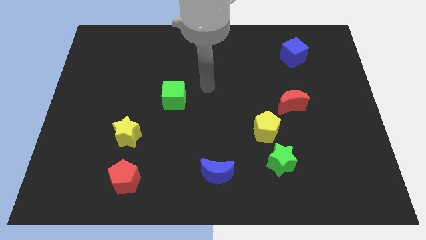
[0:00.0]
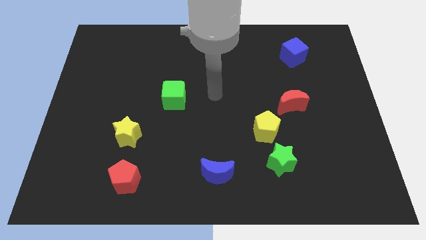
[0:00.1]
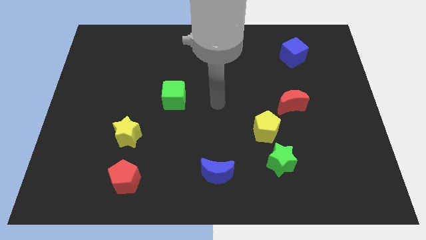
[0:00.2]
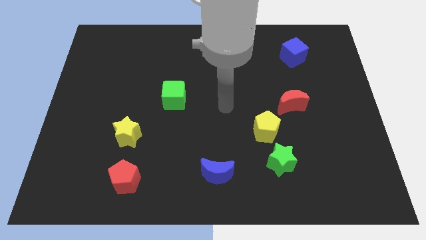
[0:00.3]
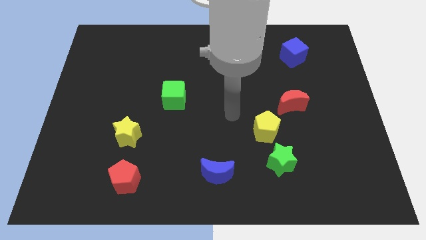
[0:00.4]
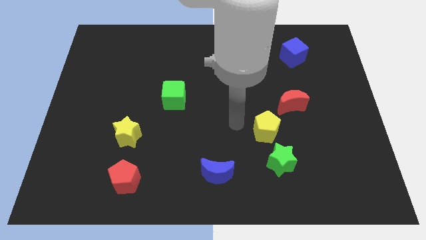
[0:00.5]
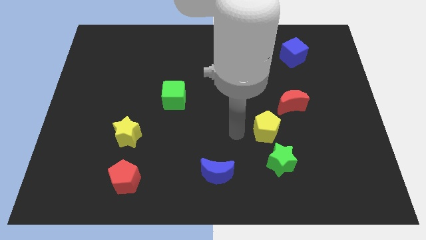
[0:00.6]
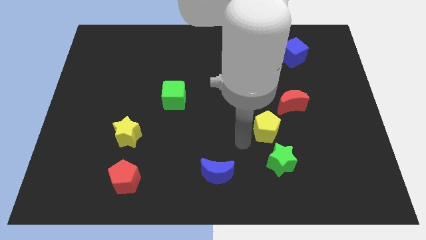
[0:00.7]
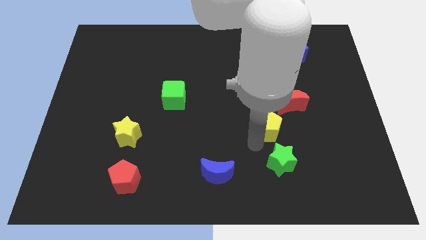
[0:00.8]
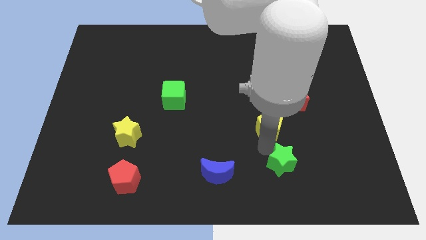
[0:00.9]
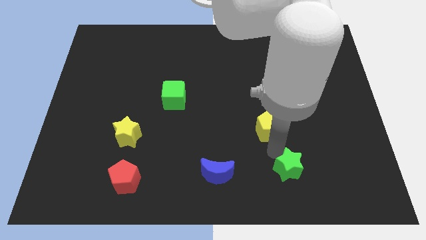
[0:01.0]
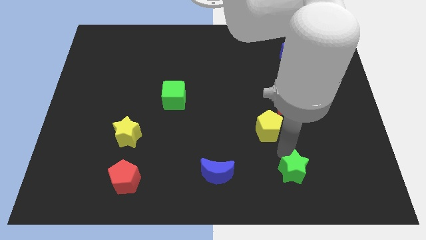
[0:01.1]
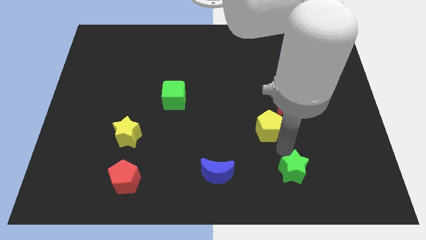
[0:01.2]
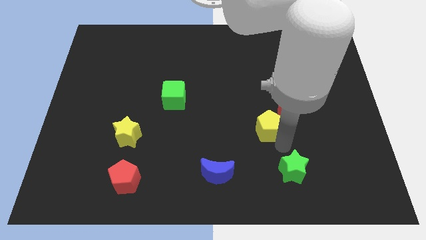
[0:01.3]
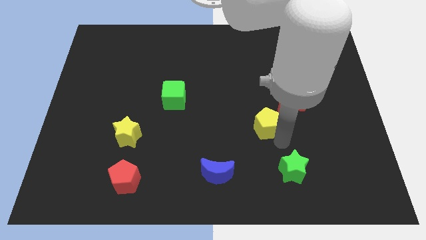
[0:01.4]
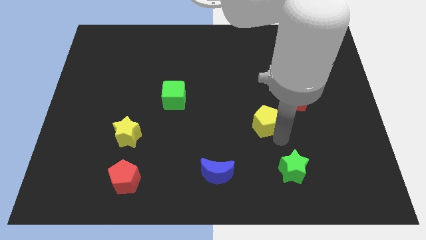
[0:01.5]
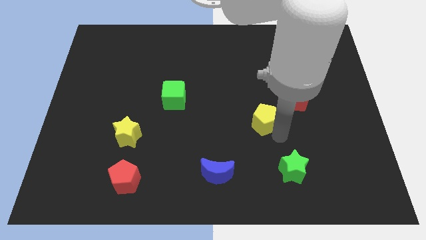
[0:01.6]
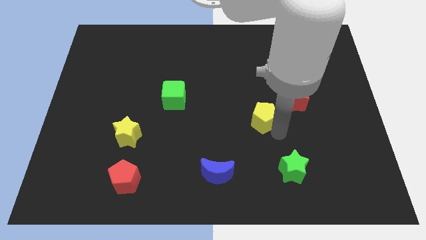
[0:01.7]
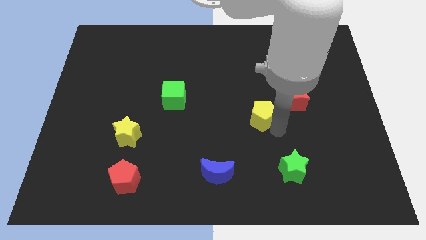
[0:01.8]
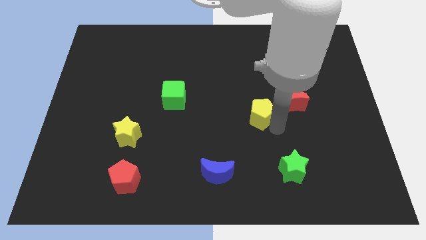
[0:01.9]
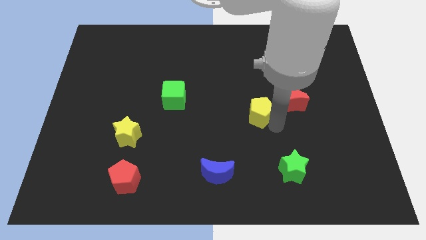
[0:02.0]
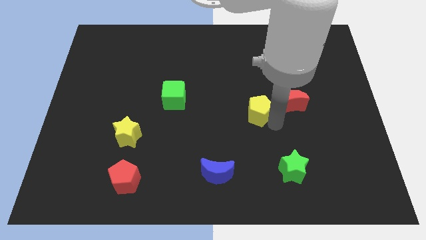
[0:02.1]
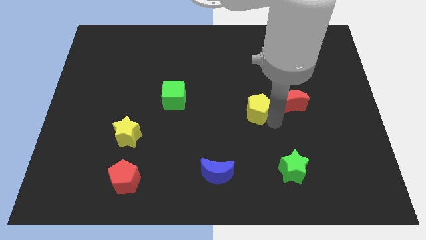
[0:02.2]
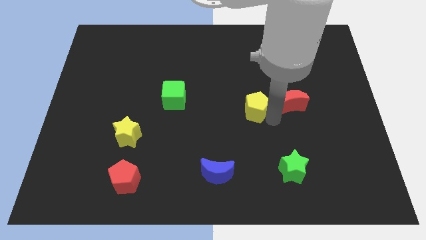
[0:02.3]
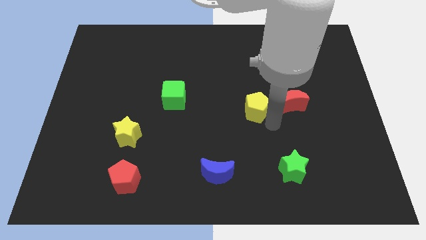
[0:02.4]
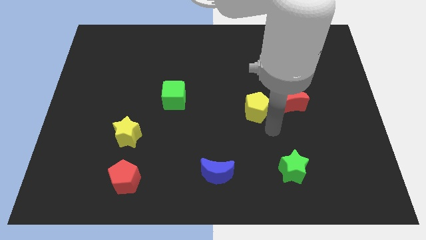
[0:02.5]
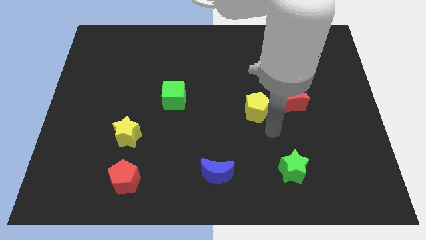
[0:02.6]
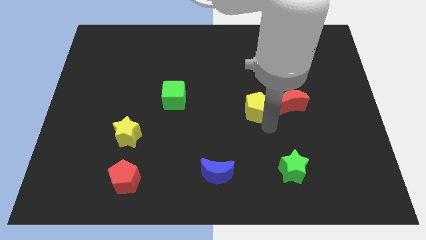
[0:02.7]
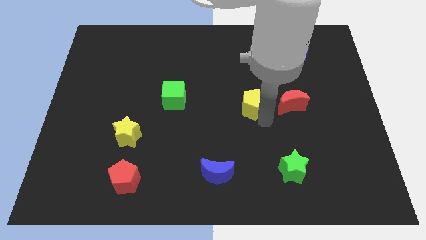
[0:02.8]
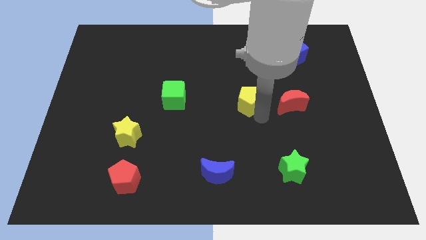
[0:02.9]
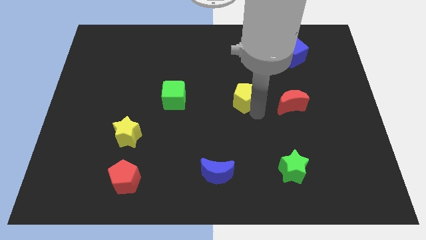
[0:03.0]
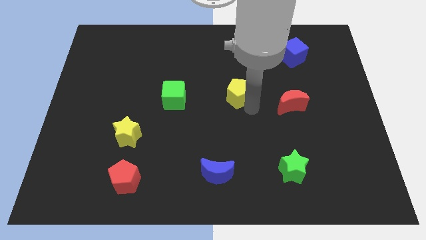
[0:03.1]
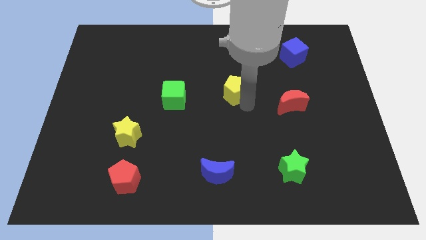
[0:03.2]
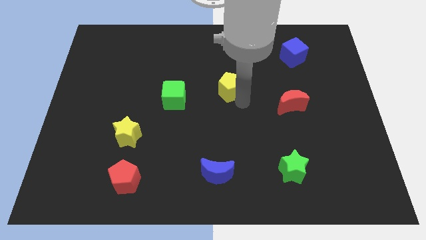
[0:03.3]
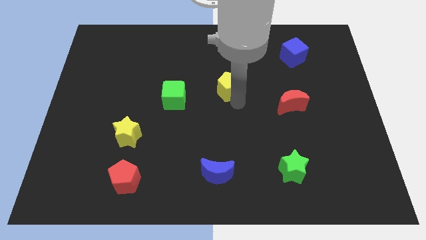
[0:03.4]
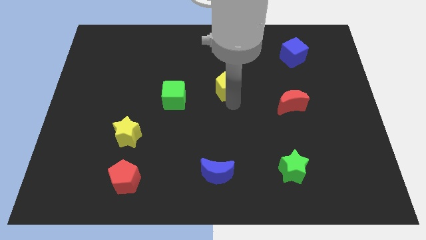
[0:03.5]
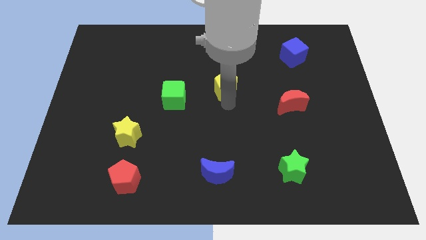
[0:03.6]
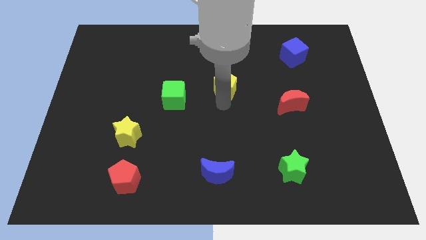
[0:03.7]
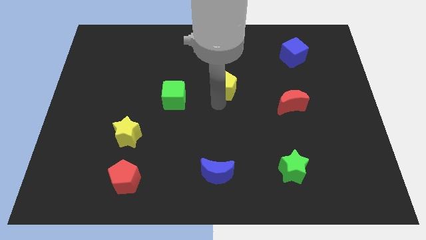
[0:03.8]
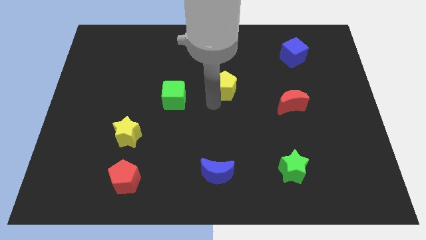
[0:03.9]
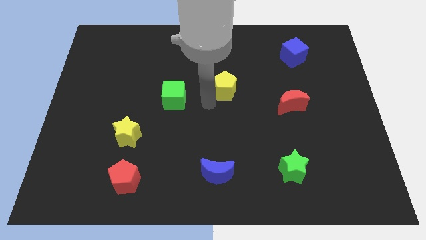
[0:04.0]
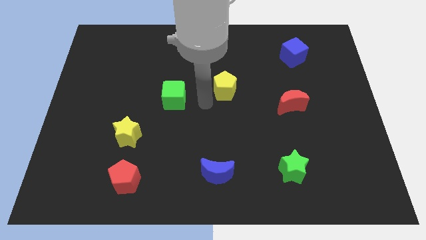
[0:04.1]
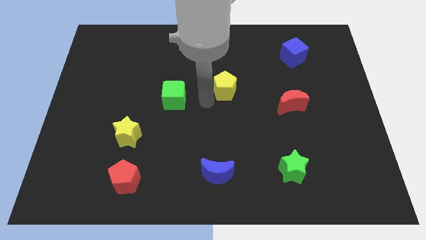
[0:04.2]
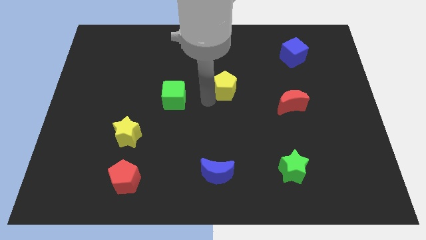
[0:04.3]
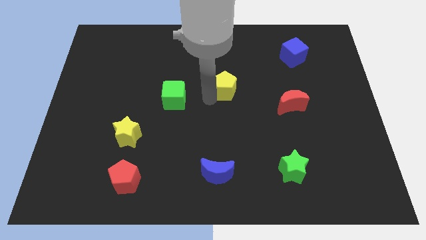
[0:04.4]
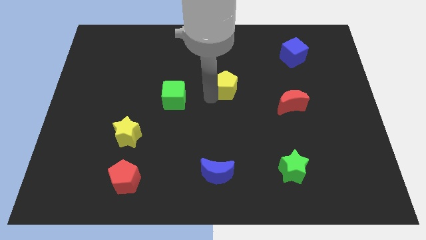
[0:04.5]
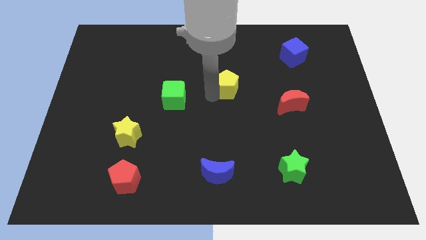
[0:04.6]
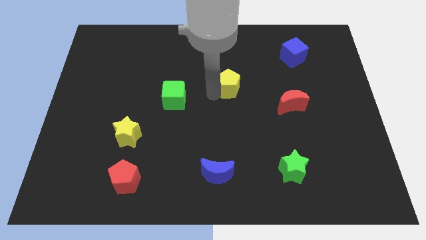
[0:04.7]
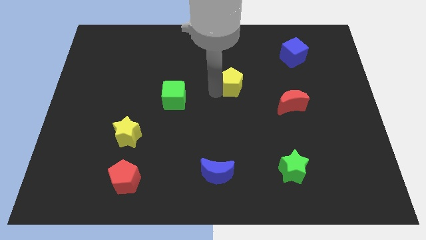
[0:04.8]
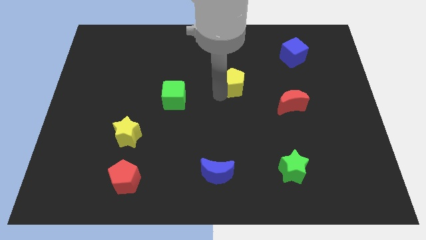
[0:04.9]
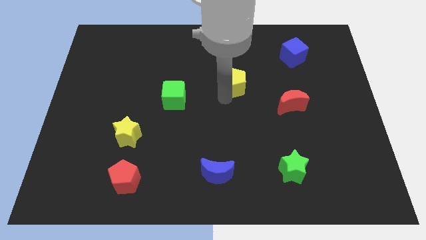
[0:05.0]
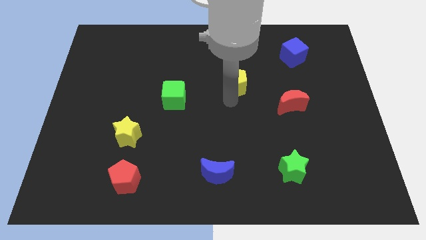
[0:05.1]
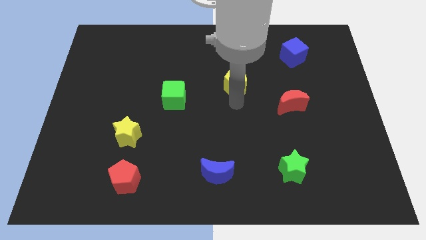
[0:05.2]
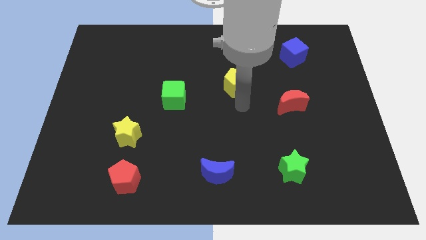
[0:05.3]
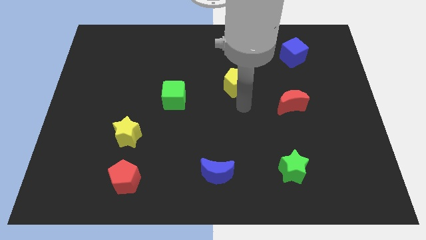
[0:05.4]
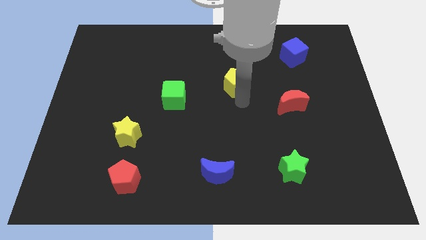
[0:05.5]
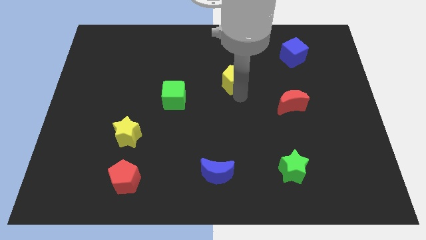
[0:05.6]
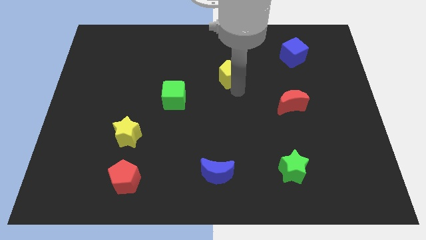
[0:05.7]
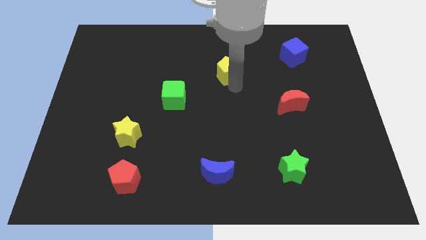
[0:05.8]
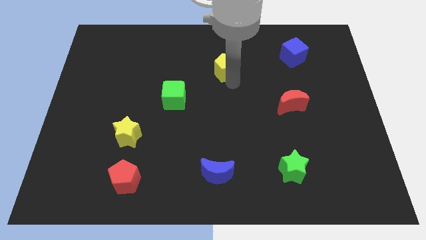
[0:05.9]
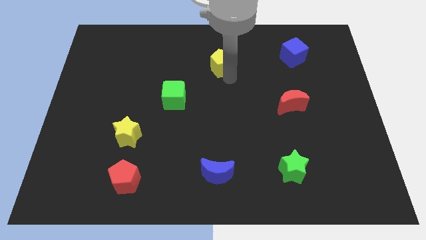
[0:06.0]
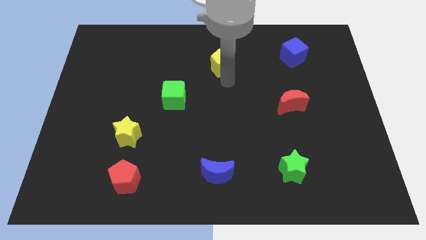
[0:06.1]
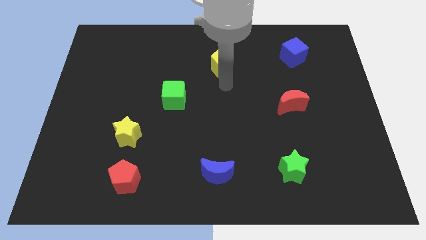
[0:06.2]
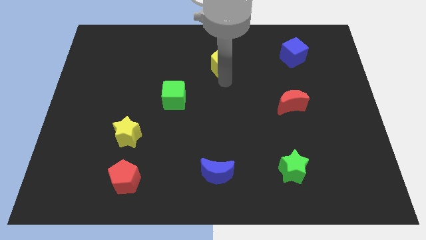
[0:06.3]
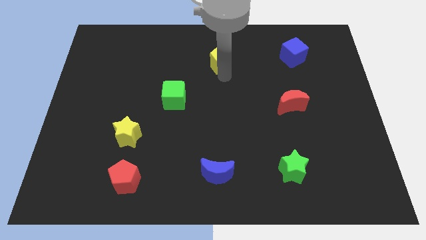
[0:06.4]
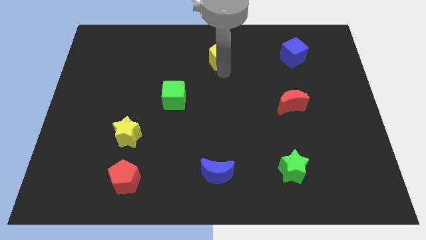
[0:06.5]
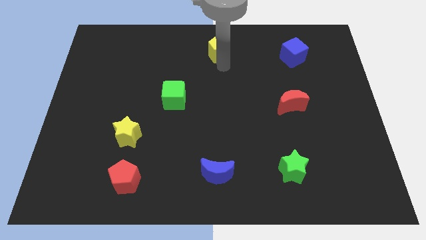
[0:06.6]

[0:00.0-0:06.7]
slide the yellow pentagon to the top side
